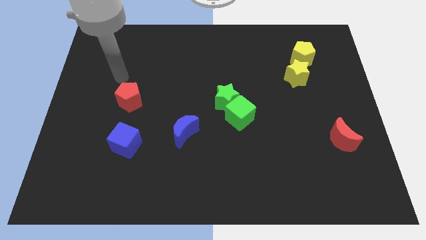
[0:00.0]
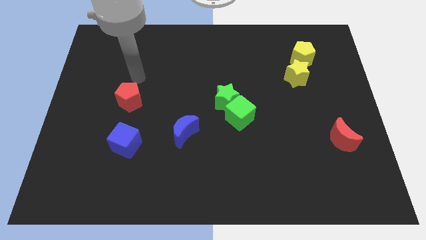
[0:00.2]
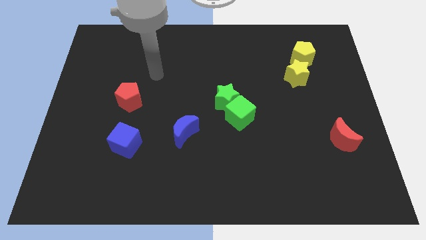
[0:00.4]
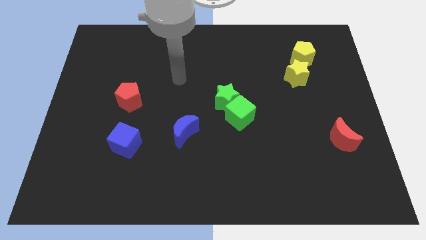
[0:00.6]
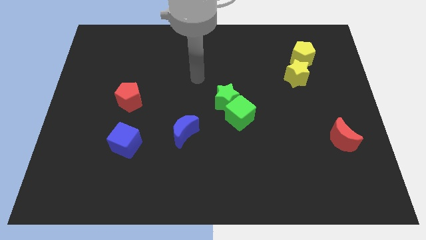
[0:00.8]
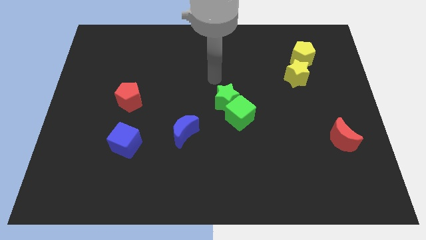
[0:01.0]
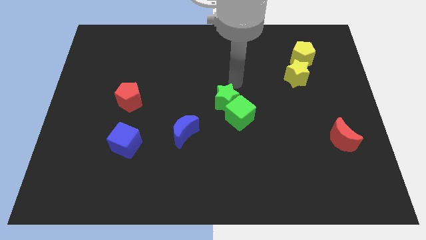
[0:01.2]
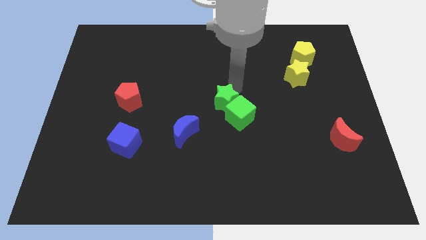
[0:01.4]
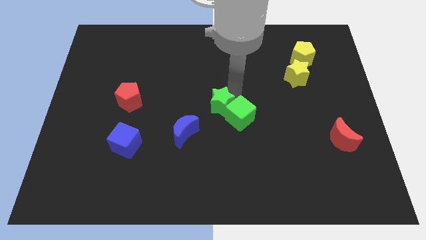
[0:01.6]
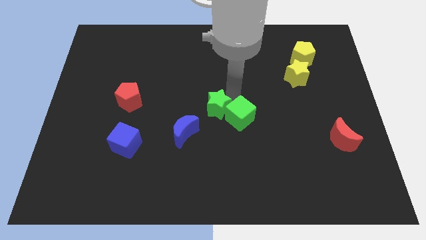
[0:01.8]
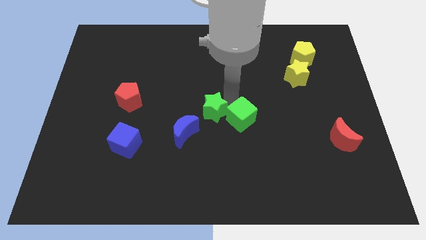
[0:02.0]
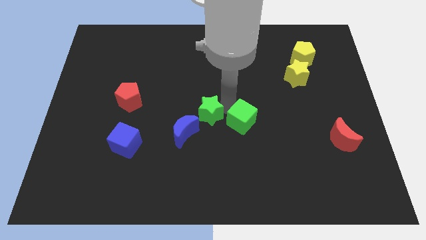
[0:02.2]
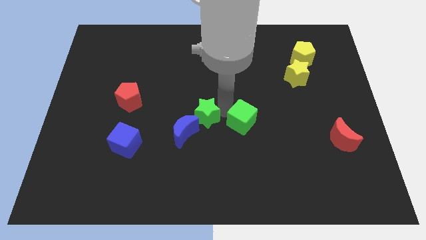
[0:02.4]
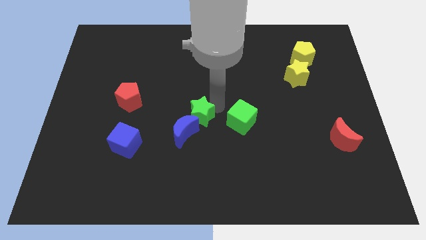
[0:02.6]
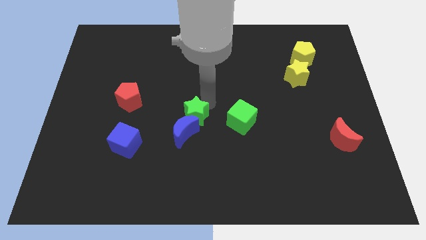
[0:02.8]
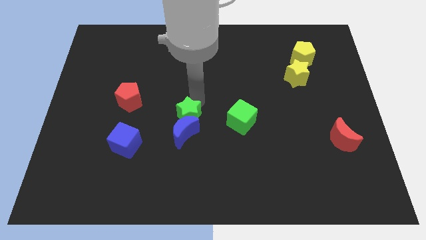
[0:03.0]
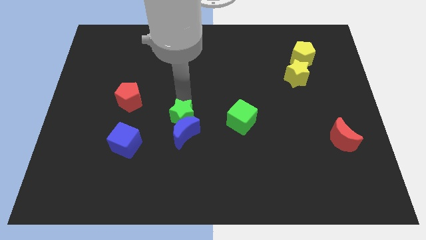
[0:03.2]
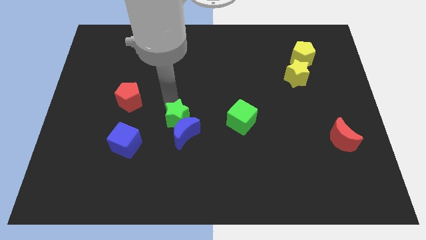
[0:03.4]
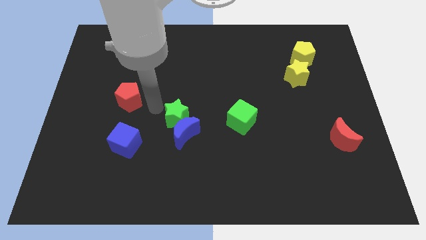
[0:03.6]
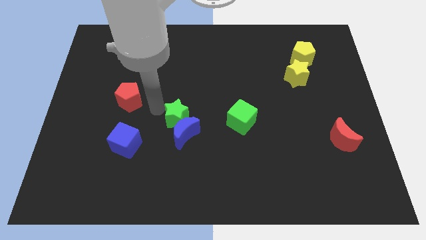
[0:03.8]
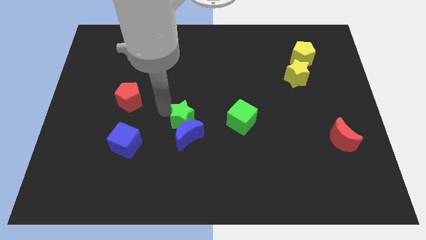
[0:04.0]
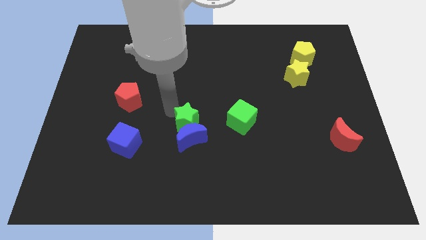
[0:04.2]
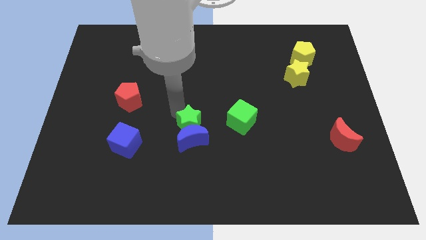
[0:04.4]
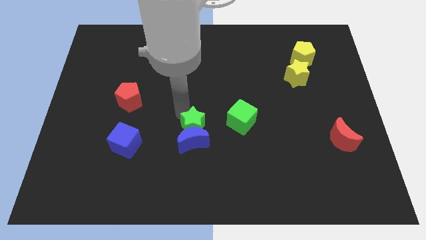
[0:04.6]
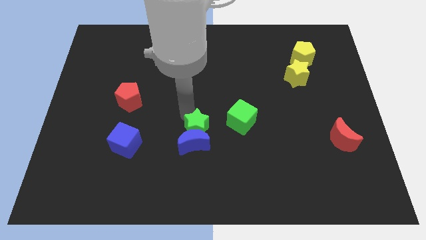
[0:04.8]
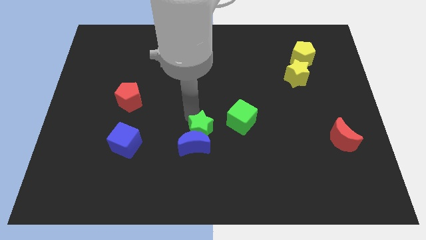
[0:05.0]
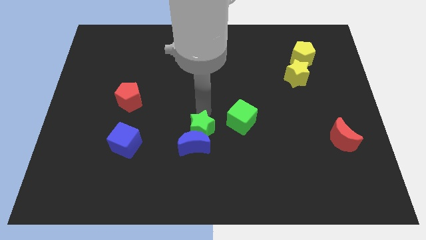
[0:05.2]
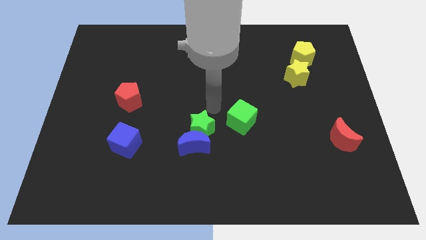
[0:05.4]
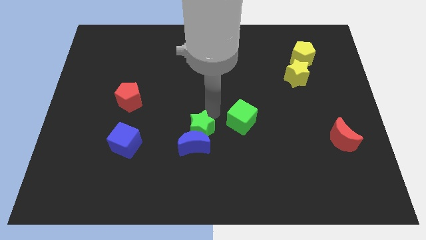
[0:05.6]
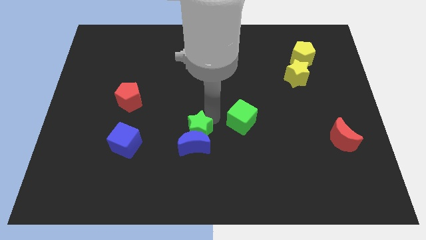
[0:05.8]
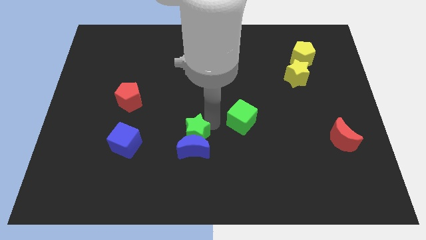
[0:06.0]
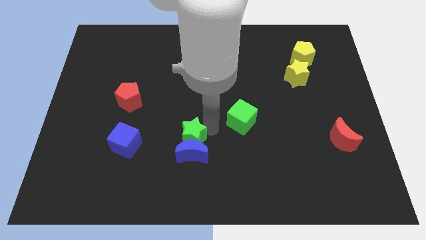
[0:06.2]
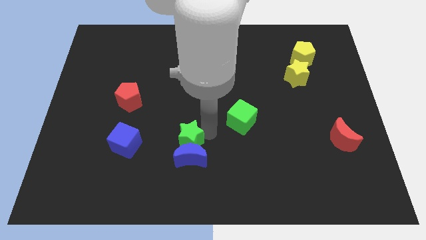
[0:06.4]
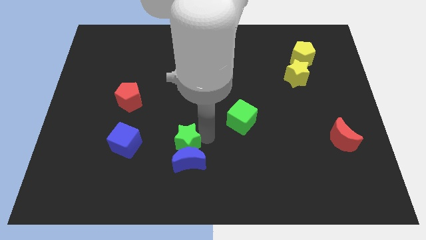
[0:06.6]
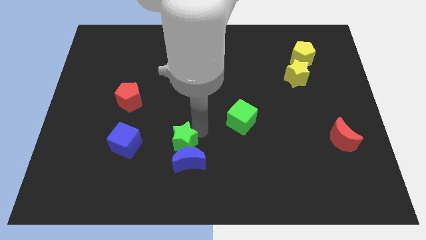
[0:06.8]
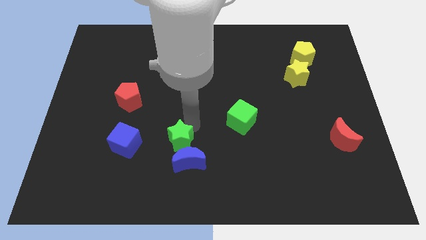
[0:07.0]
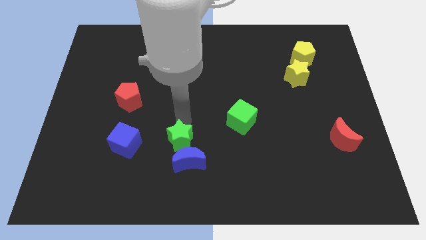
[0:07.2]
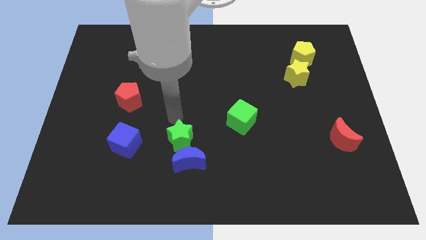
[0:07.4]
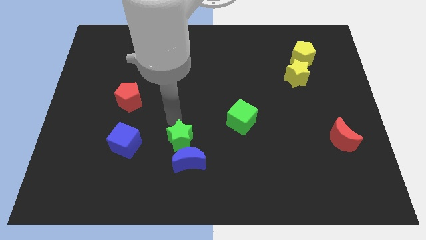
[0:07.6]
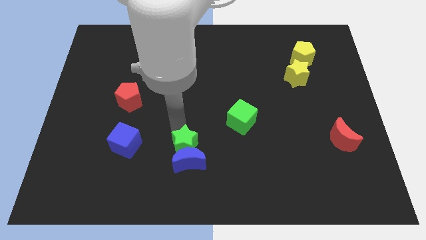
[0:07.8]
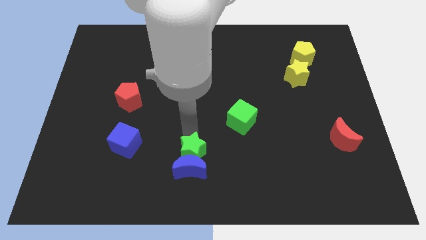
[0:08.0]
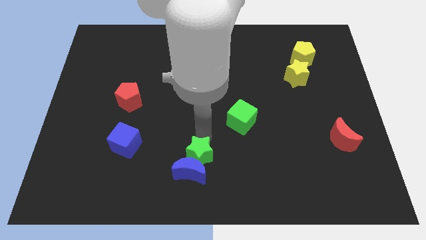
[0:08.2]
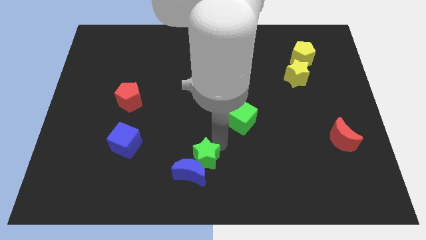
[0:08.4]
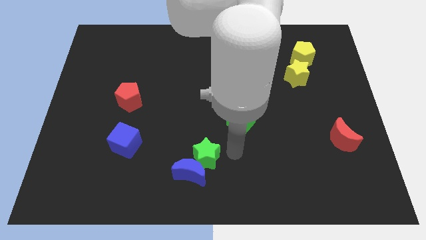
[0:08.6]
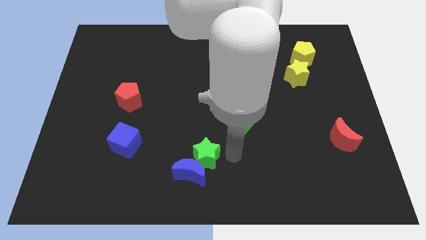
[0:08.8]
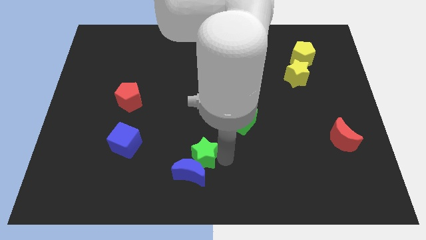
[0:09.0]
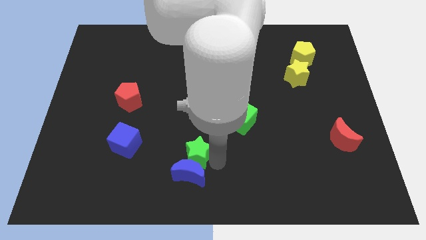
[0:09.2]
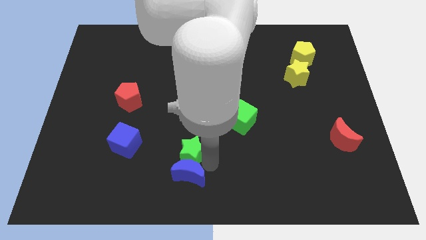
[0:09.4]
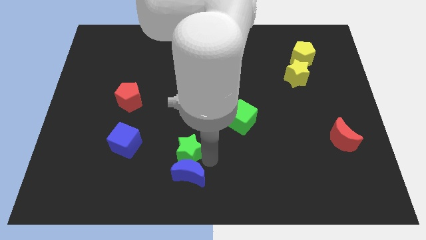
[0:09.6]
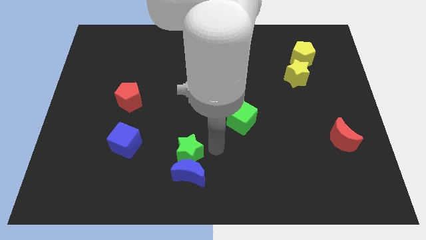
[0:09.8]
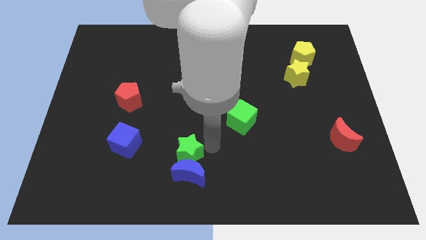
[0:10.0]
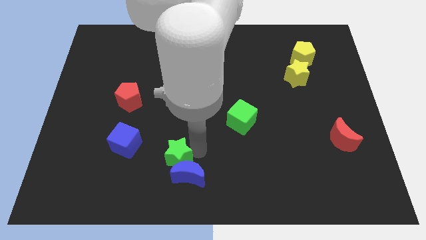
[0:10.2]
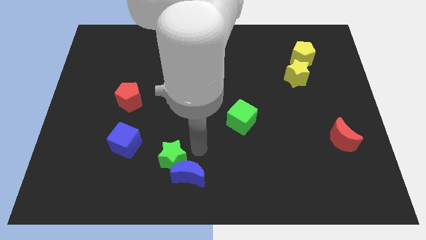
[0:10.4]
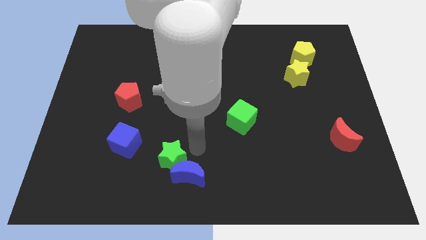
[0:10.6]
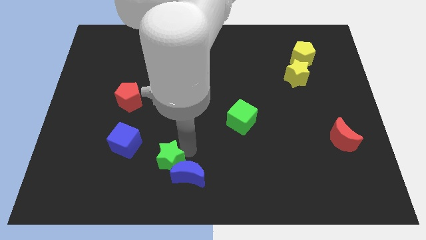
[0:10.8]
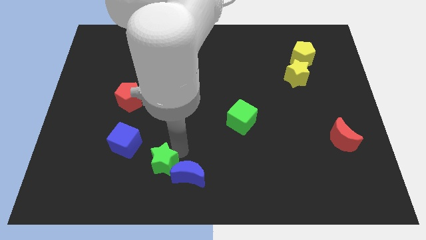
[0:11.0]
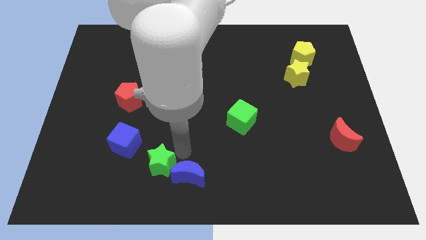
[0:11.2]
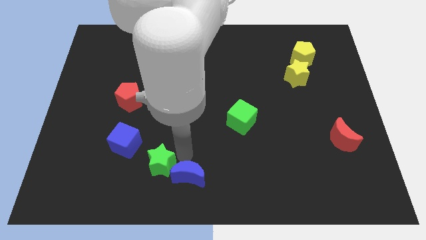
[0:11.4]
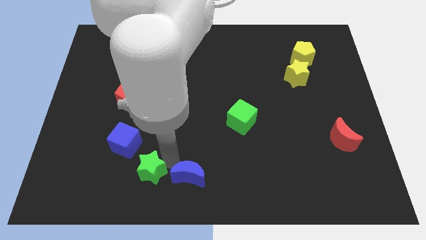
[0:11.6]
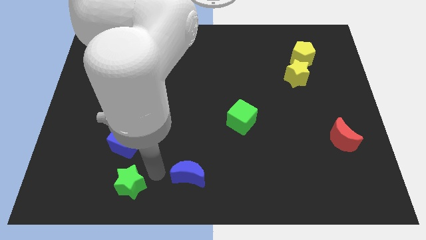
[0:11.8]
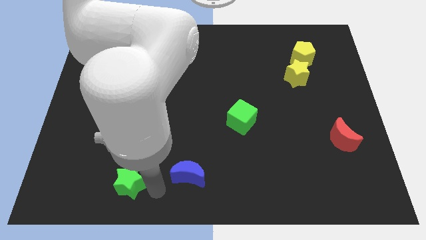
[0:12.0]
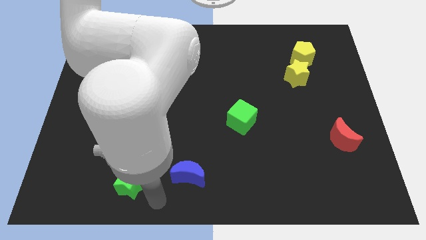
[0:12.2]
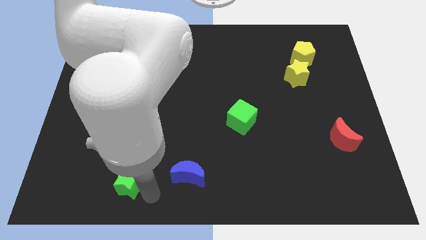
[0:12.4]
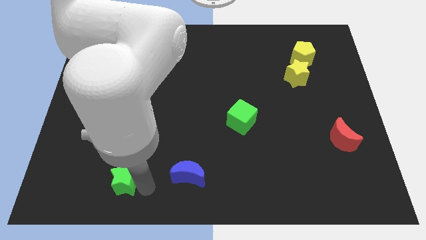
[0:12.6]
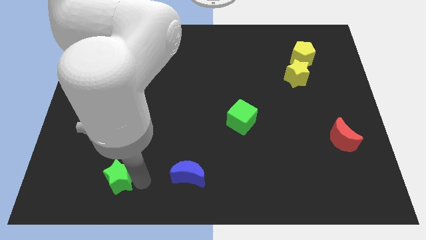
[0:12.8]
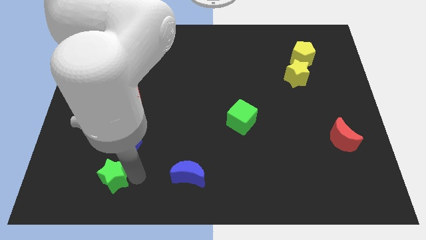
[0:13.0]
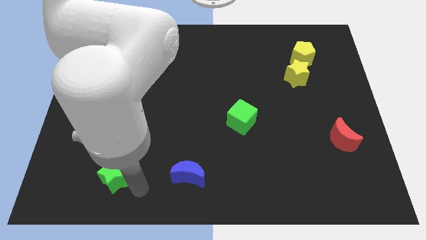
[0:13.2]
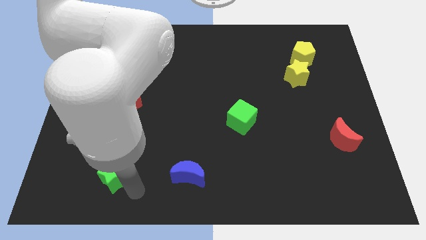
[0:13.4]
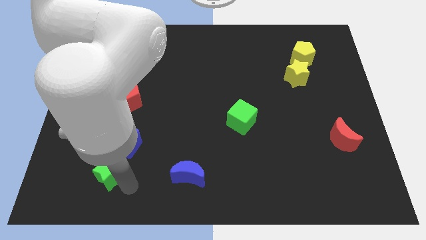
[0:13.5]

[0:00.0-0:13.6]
move the green star to the bottom left of the blue cube

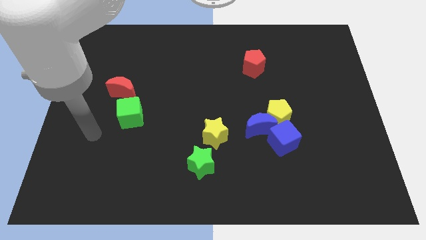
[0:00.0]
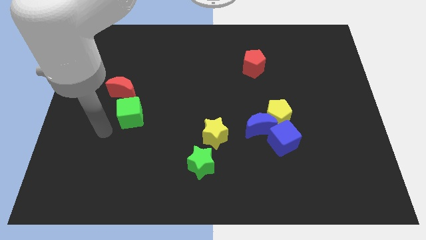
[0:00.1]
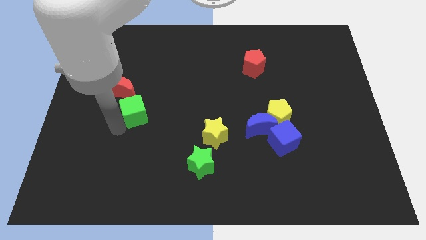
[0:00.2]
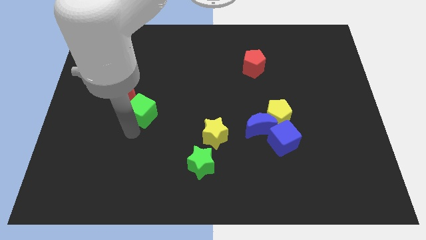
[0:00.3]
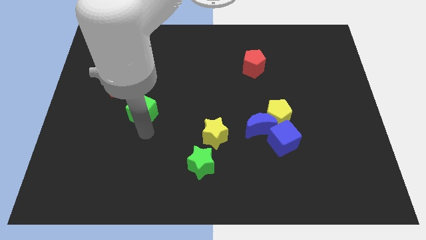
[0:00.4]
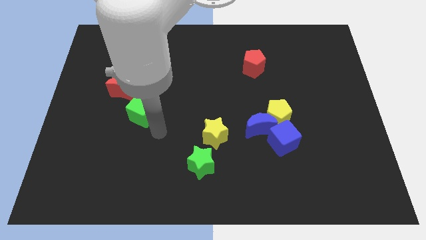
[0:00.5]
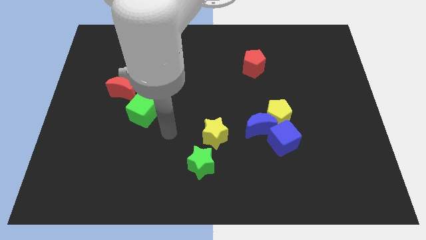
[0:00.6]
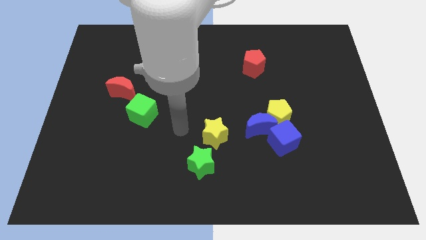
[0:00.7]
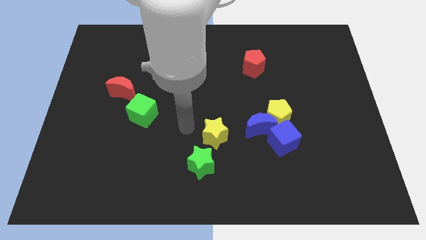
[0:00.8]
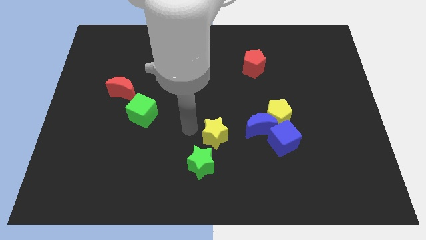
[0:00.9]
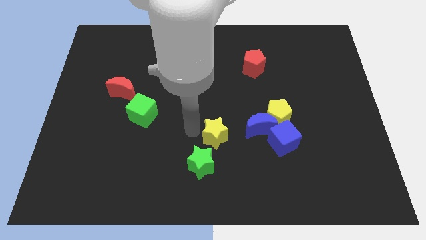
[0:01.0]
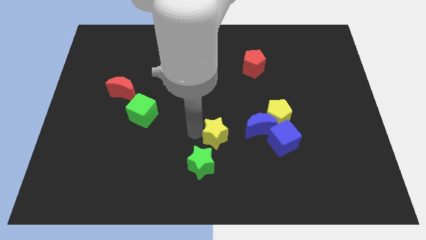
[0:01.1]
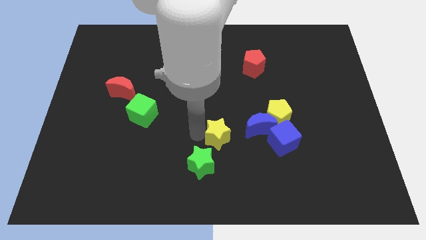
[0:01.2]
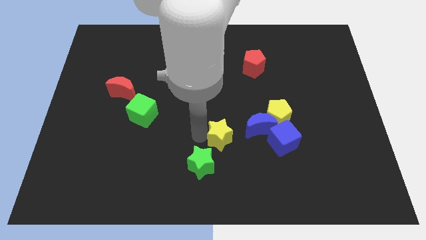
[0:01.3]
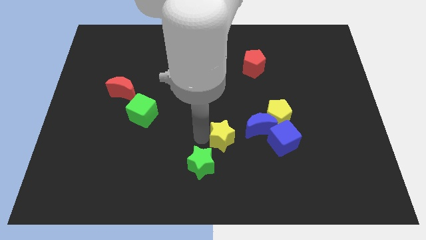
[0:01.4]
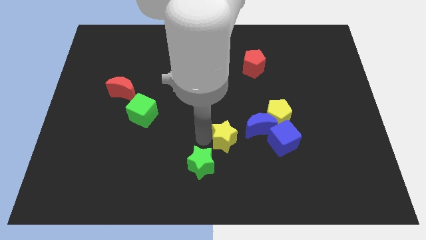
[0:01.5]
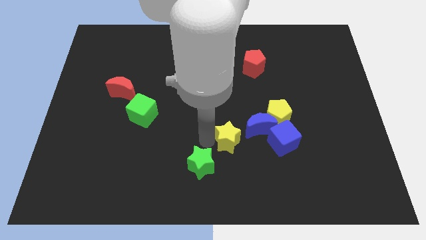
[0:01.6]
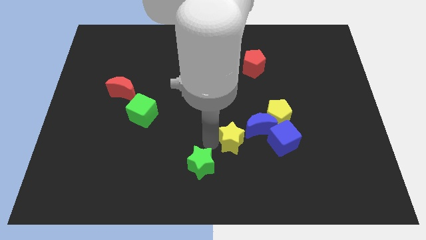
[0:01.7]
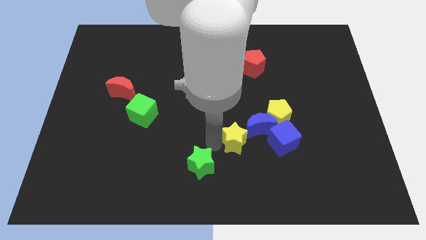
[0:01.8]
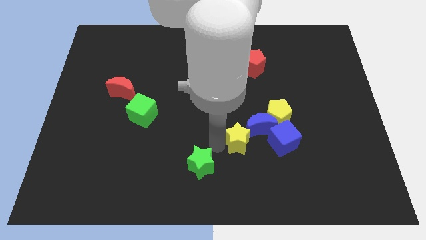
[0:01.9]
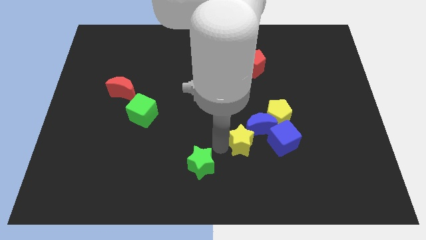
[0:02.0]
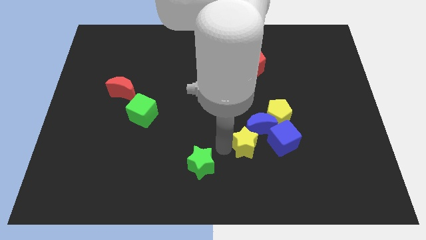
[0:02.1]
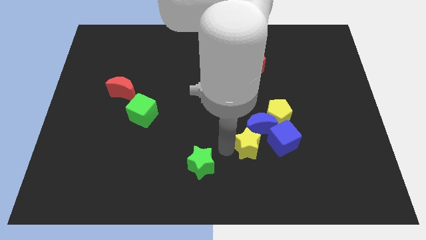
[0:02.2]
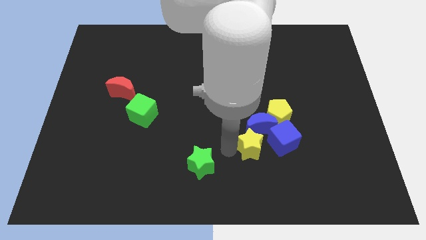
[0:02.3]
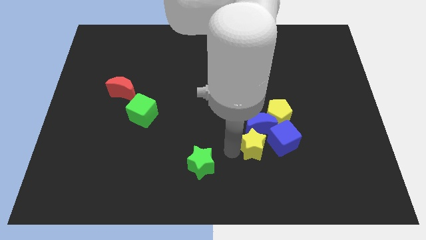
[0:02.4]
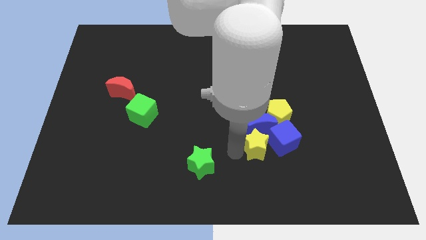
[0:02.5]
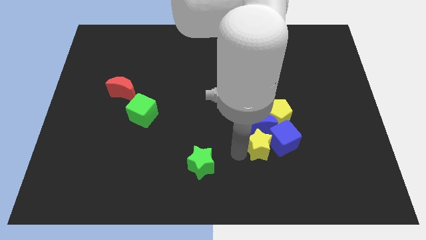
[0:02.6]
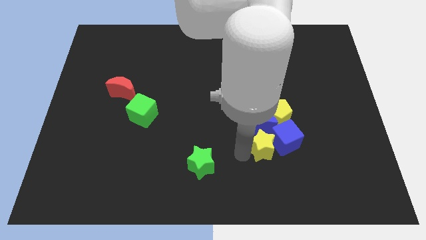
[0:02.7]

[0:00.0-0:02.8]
slide the yellow star to the bottom of the yellow pentagon
